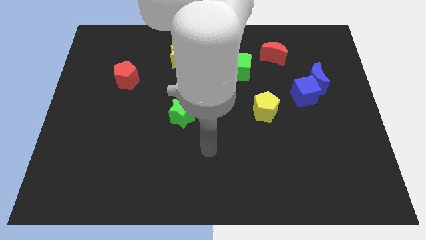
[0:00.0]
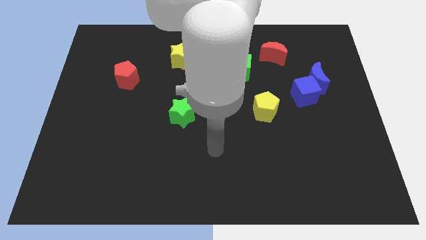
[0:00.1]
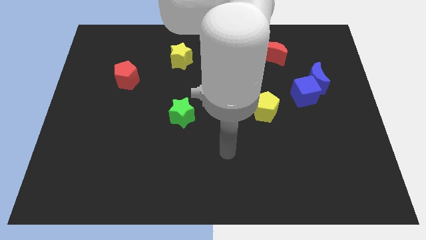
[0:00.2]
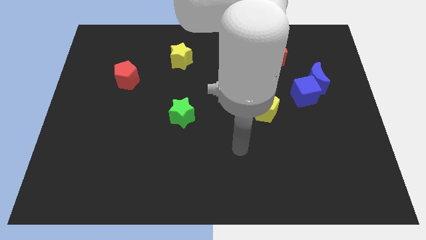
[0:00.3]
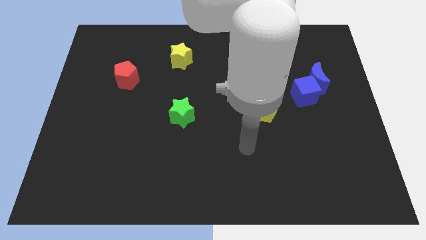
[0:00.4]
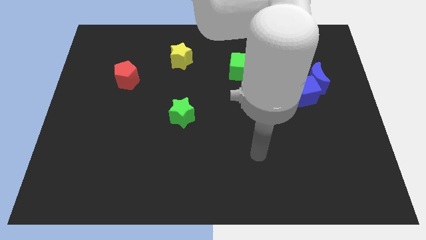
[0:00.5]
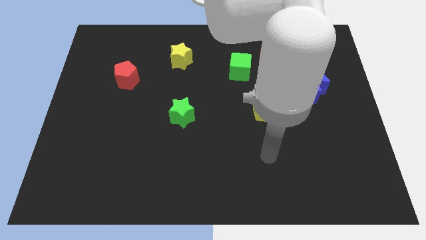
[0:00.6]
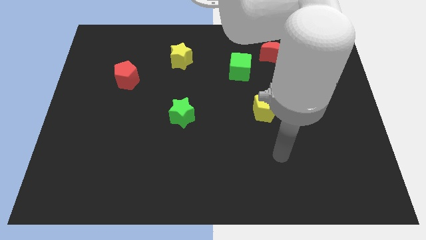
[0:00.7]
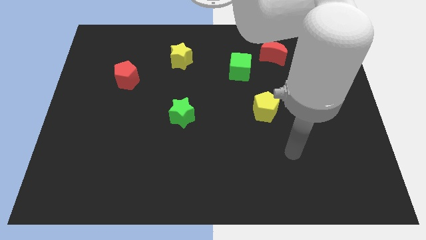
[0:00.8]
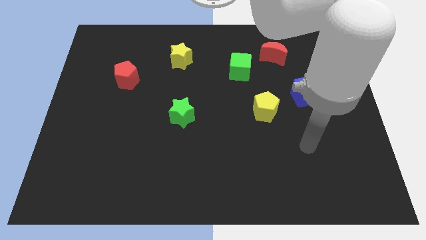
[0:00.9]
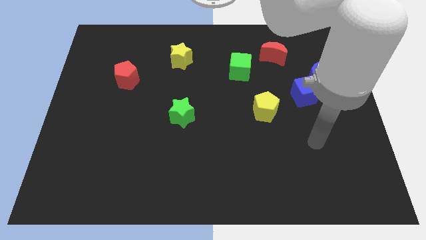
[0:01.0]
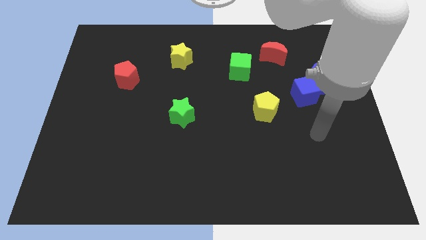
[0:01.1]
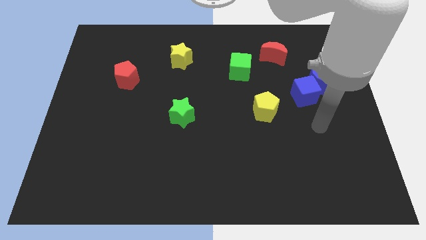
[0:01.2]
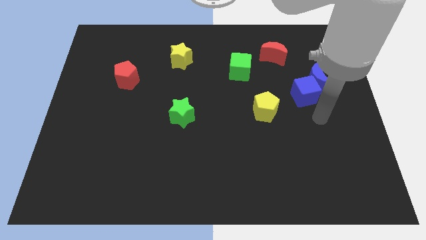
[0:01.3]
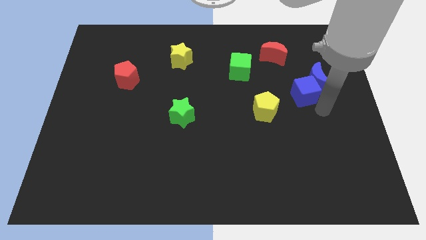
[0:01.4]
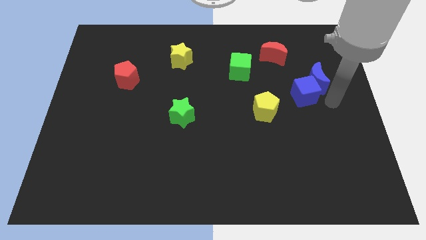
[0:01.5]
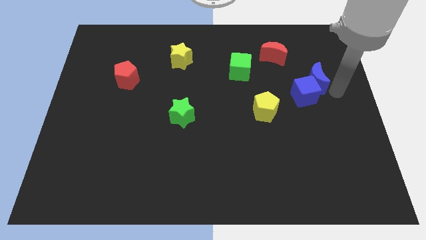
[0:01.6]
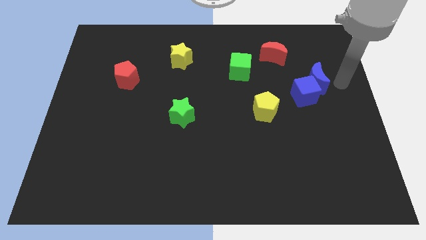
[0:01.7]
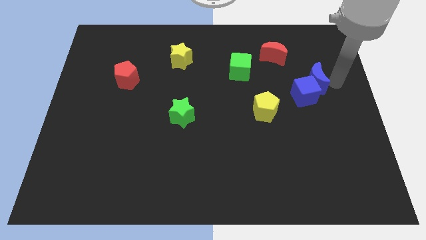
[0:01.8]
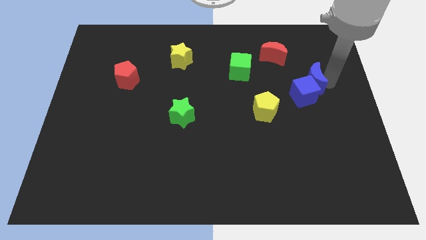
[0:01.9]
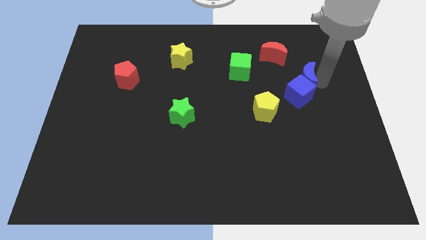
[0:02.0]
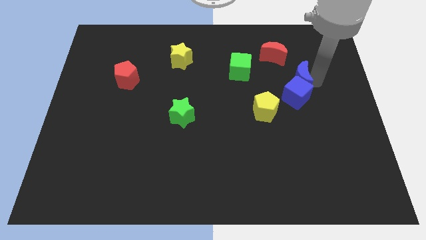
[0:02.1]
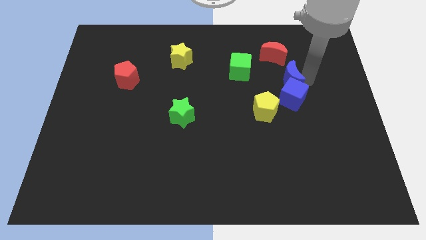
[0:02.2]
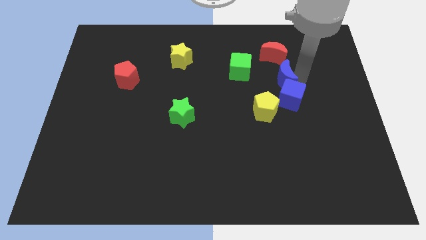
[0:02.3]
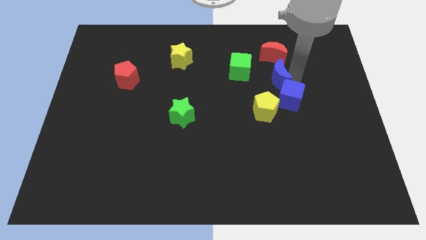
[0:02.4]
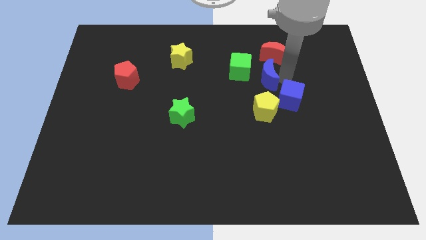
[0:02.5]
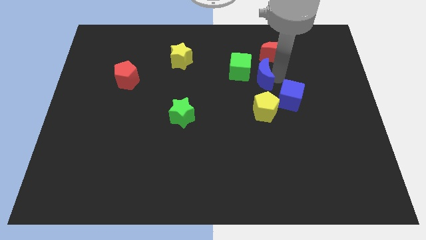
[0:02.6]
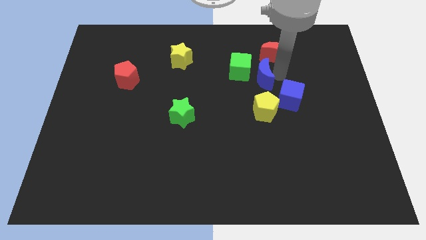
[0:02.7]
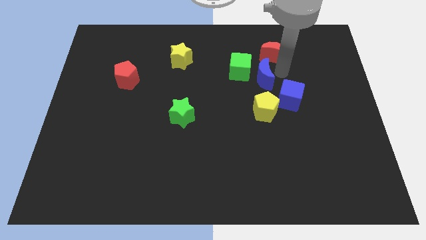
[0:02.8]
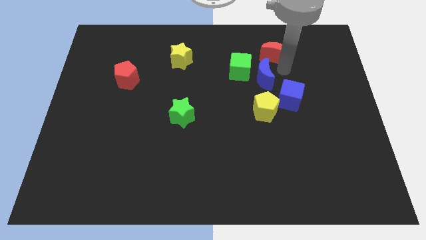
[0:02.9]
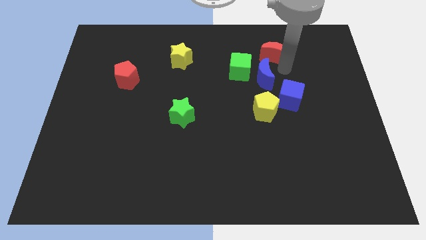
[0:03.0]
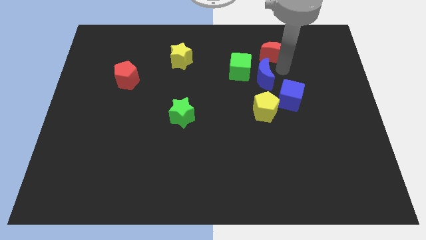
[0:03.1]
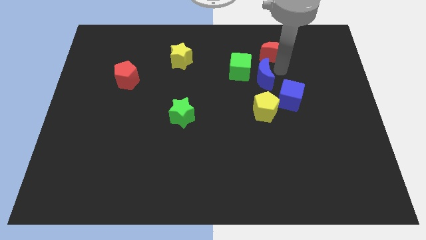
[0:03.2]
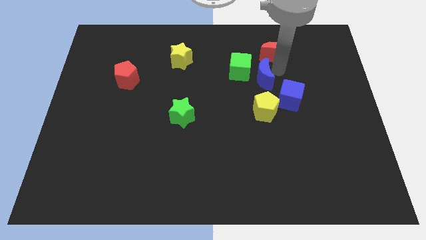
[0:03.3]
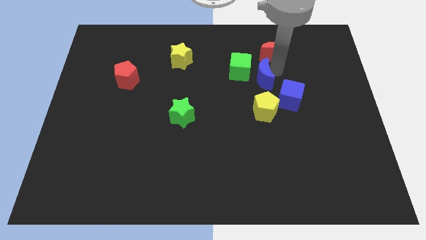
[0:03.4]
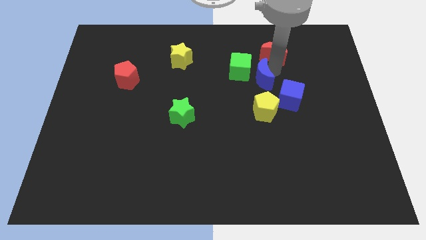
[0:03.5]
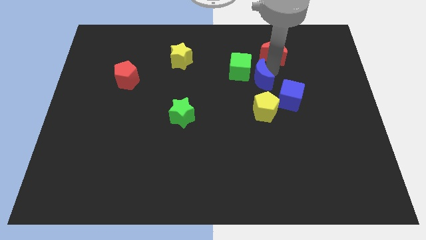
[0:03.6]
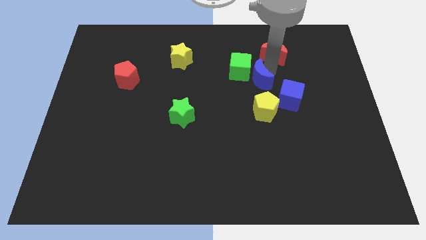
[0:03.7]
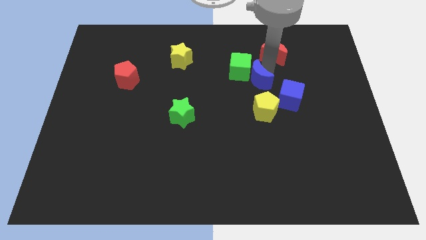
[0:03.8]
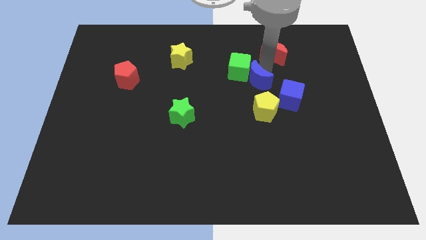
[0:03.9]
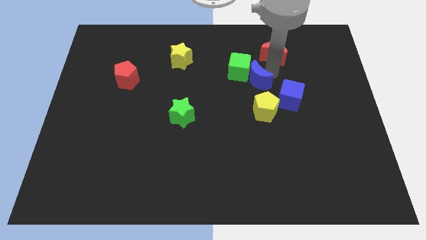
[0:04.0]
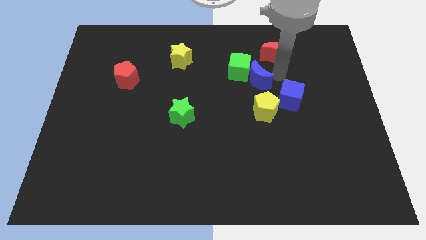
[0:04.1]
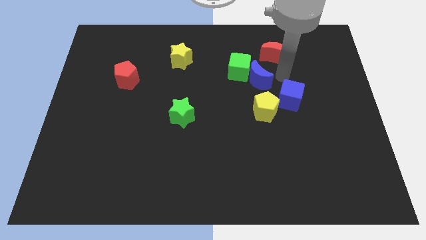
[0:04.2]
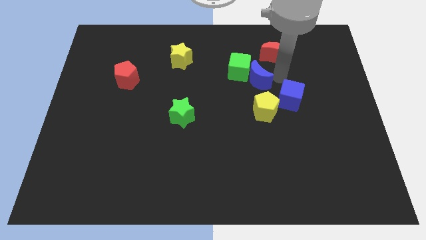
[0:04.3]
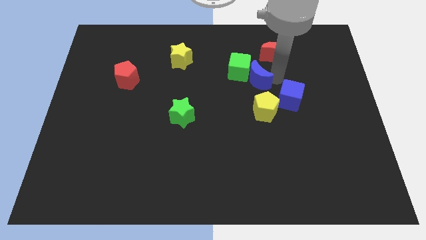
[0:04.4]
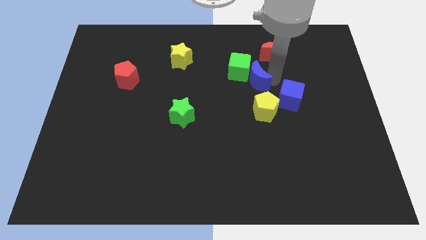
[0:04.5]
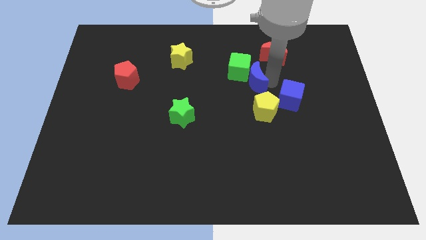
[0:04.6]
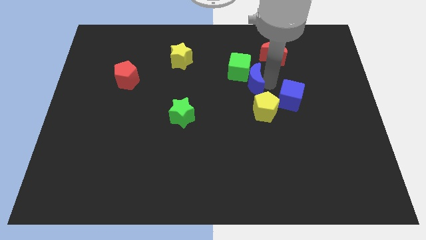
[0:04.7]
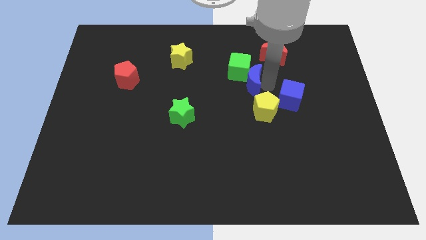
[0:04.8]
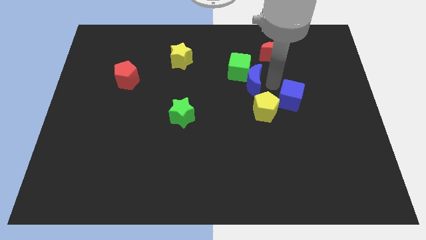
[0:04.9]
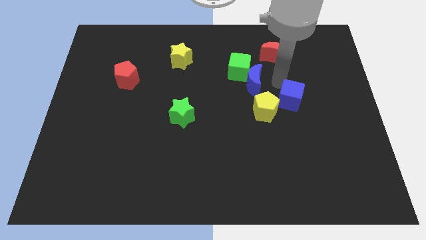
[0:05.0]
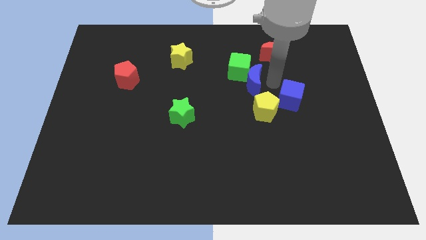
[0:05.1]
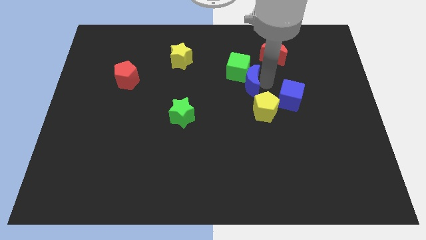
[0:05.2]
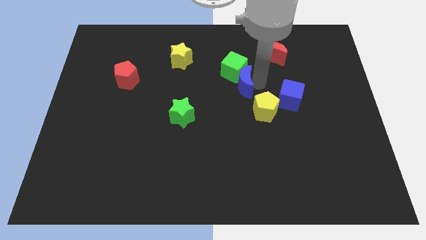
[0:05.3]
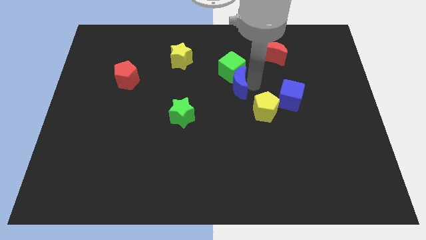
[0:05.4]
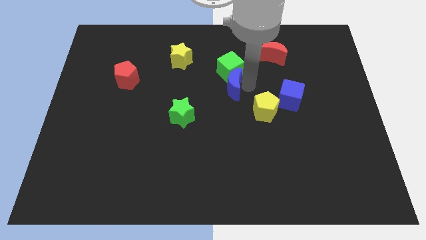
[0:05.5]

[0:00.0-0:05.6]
move the blue moon left

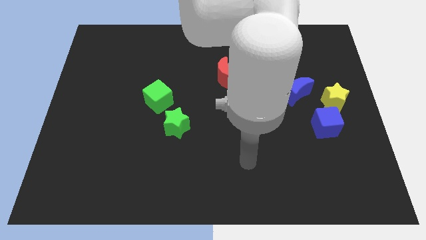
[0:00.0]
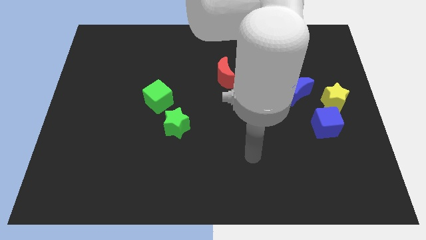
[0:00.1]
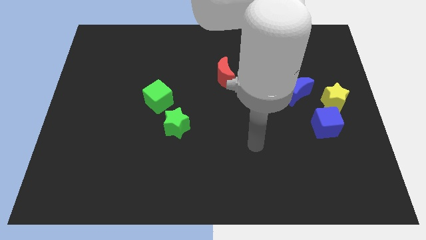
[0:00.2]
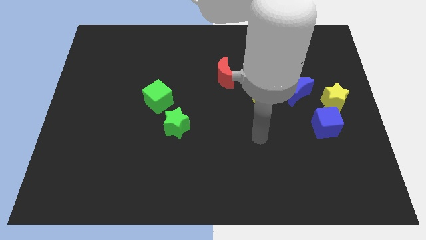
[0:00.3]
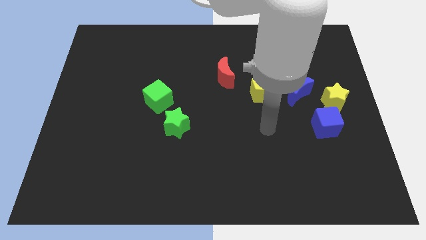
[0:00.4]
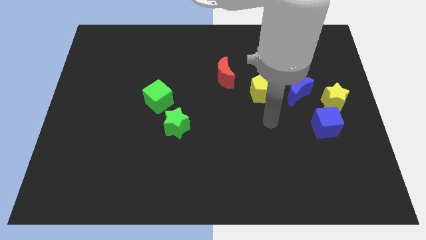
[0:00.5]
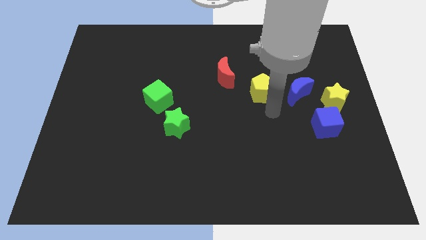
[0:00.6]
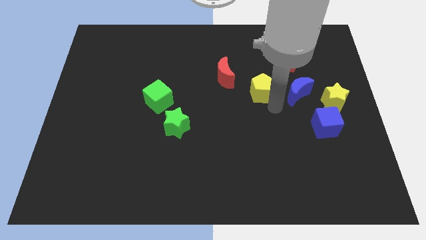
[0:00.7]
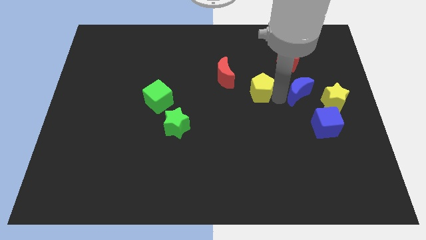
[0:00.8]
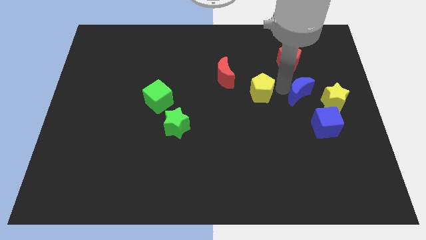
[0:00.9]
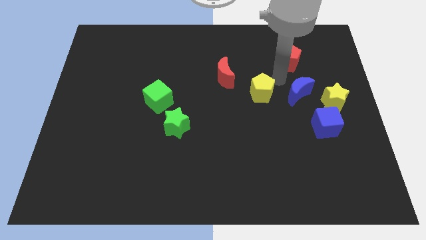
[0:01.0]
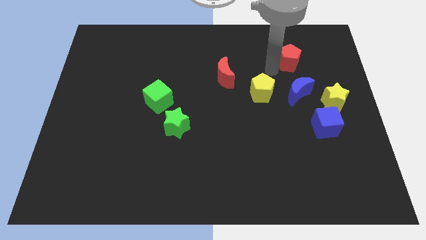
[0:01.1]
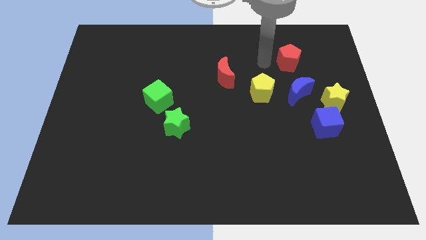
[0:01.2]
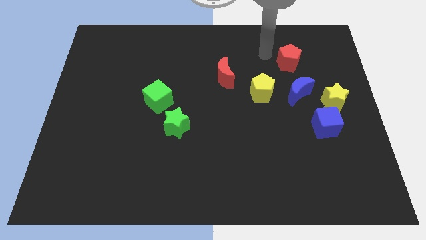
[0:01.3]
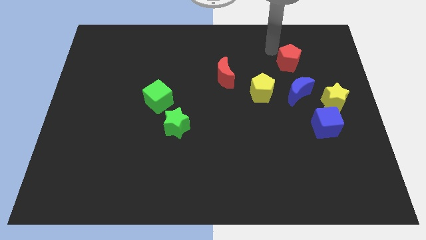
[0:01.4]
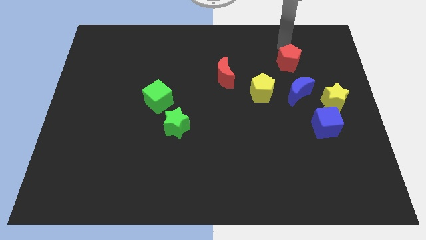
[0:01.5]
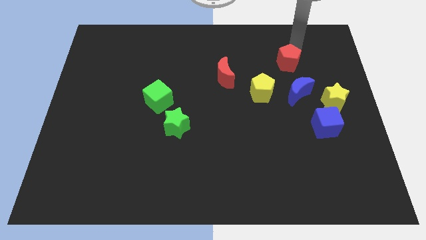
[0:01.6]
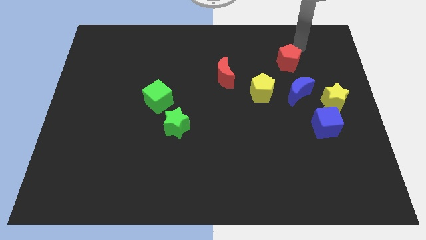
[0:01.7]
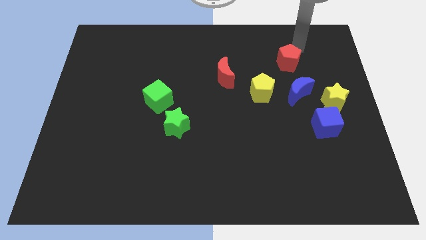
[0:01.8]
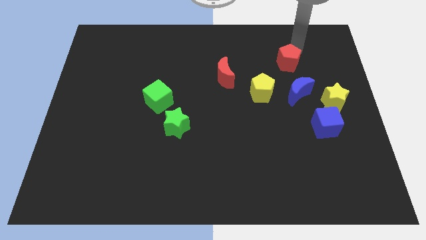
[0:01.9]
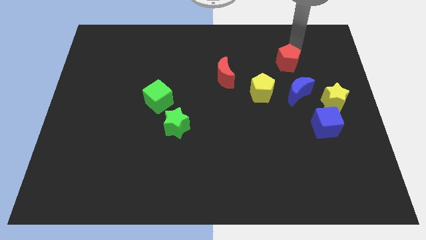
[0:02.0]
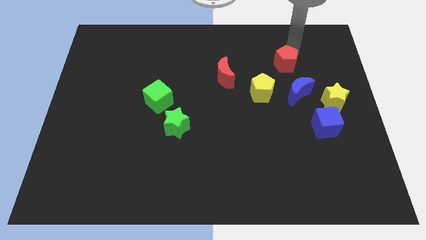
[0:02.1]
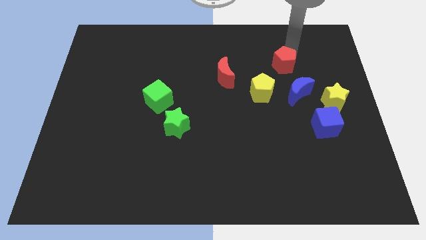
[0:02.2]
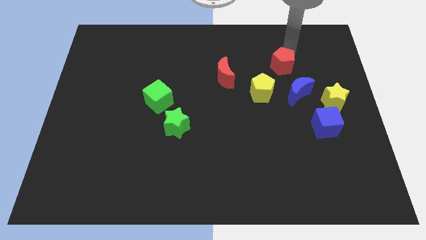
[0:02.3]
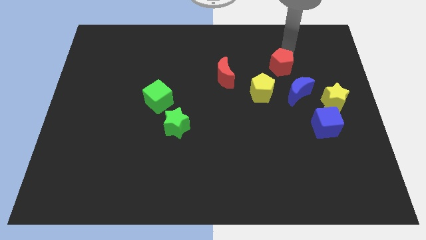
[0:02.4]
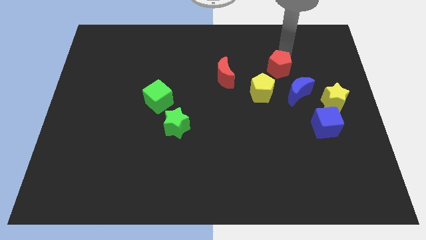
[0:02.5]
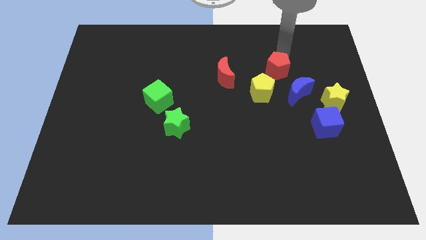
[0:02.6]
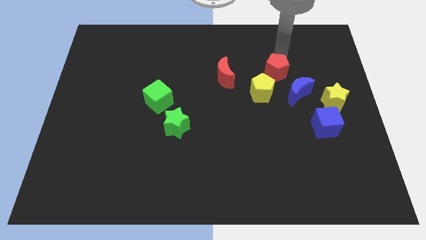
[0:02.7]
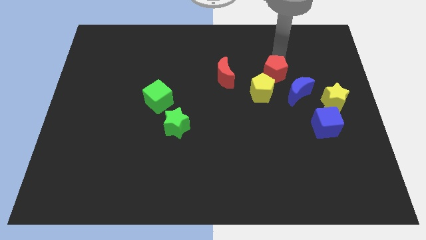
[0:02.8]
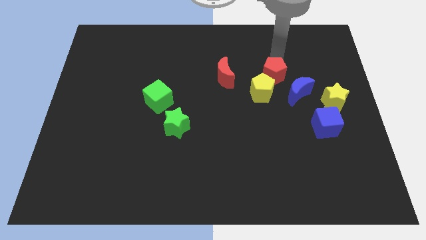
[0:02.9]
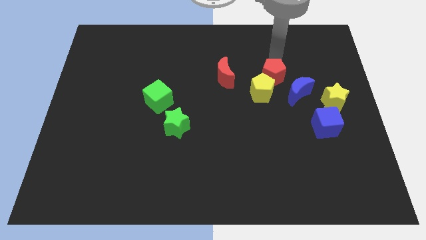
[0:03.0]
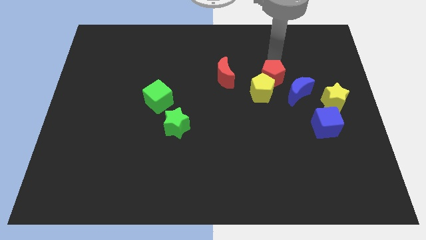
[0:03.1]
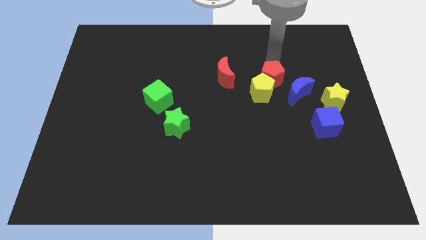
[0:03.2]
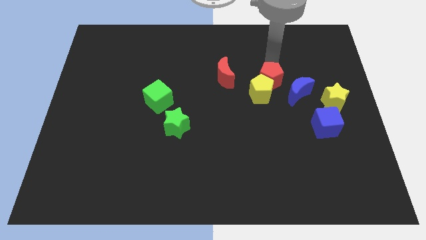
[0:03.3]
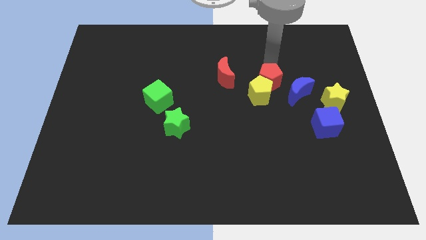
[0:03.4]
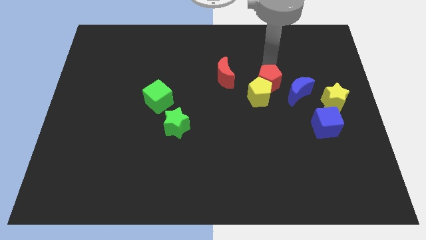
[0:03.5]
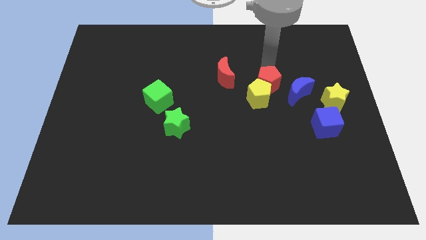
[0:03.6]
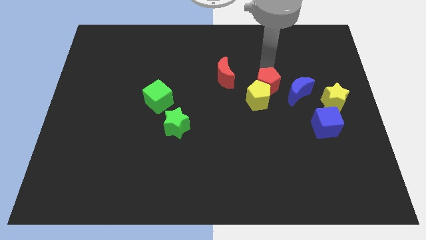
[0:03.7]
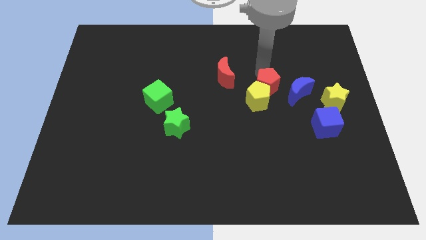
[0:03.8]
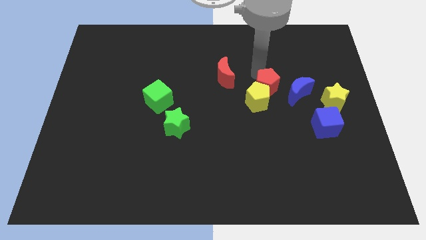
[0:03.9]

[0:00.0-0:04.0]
push the red pentagon downwards somewhat
